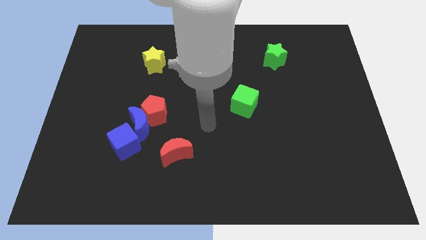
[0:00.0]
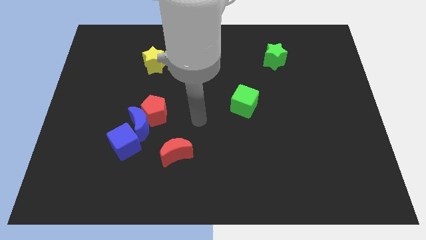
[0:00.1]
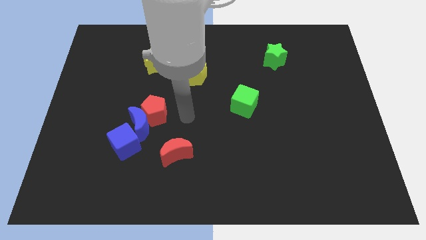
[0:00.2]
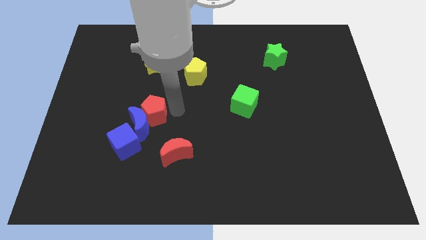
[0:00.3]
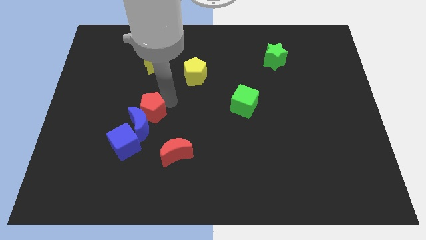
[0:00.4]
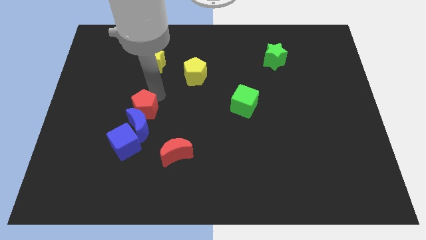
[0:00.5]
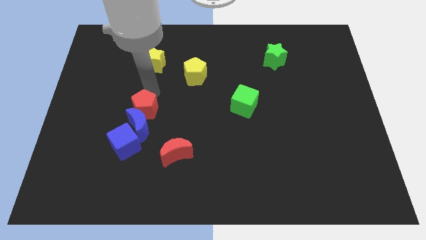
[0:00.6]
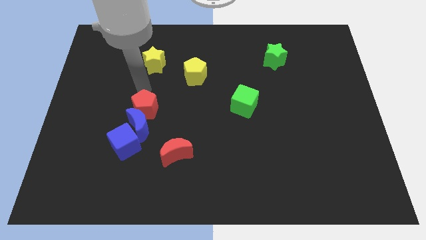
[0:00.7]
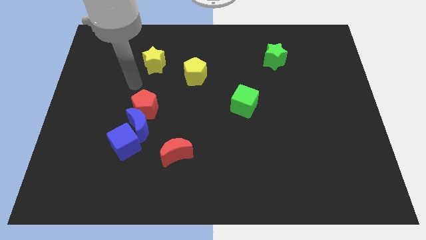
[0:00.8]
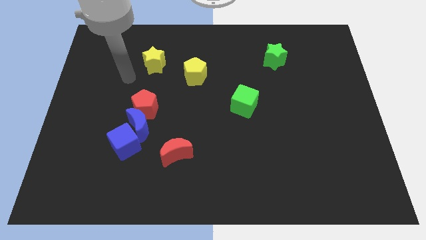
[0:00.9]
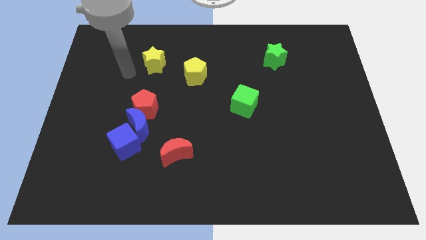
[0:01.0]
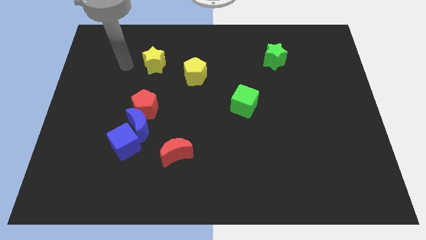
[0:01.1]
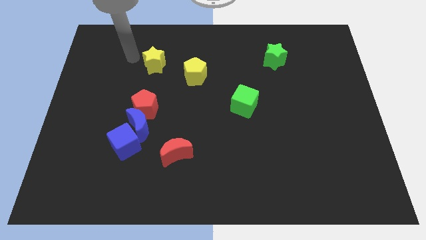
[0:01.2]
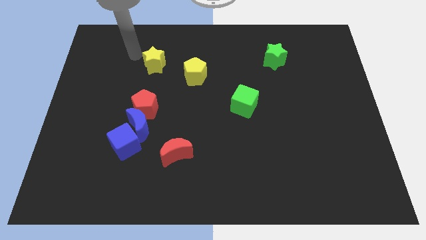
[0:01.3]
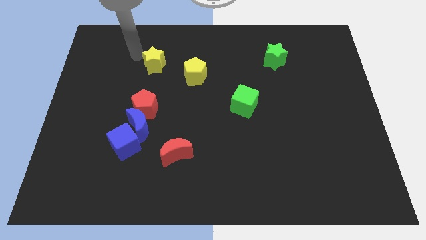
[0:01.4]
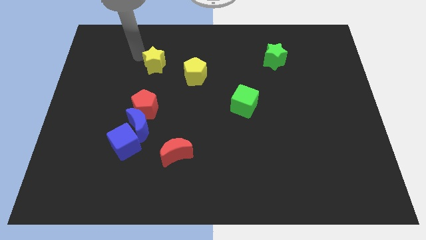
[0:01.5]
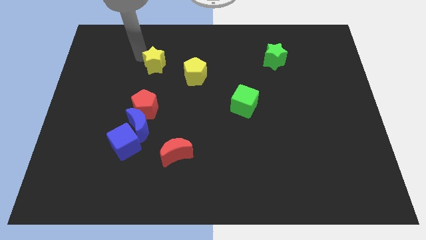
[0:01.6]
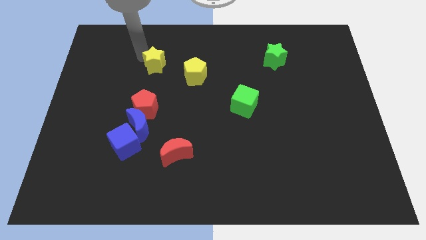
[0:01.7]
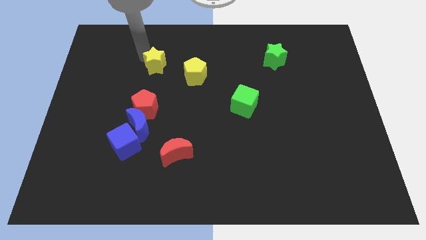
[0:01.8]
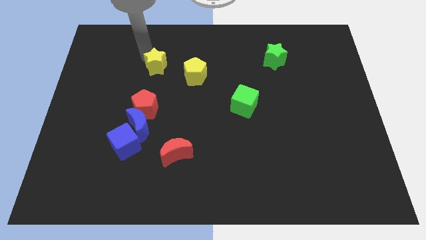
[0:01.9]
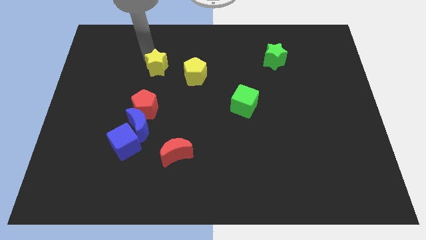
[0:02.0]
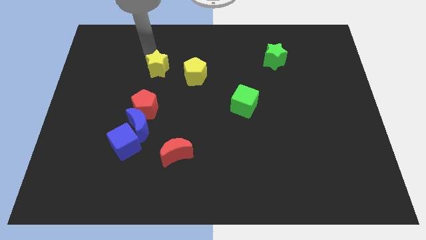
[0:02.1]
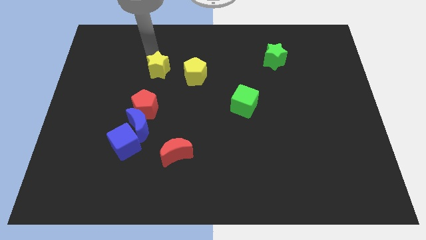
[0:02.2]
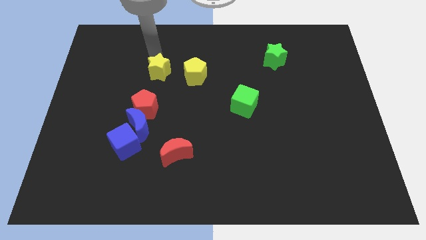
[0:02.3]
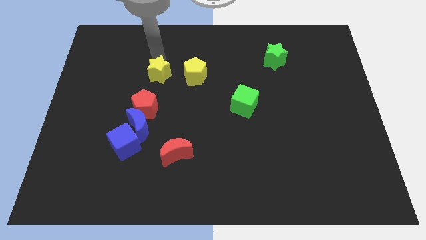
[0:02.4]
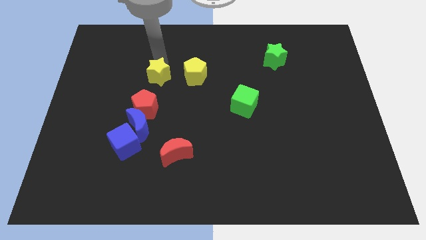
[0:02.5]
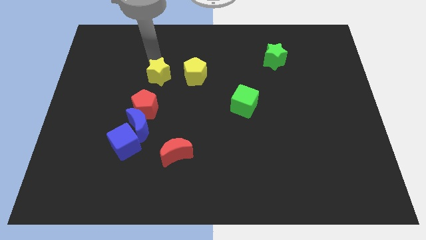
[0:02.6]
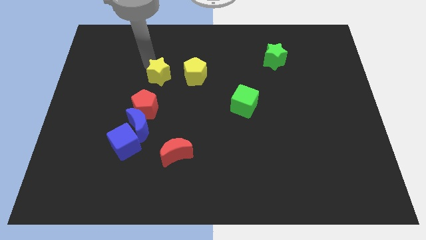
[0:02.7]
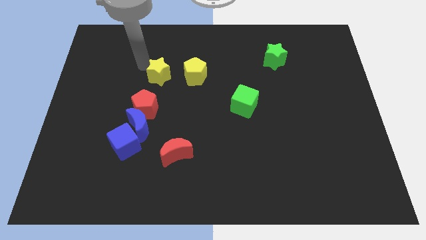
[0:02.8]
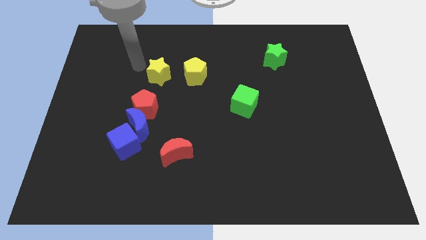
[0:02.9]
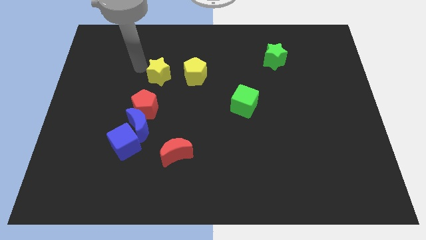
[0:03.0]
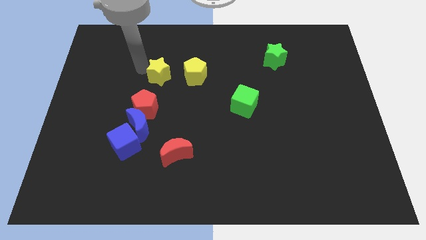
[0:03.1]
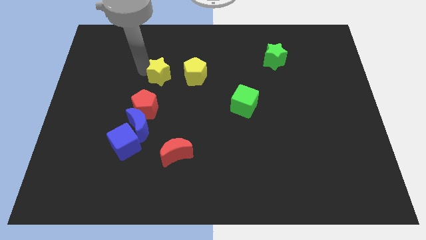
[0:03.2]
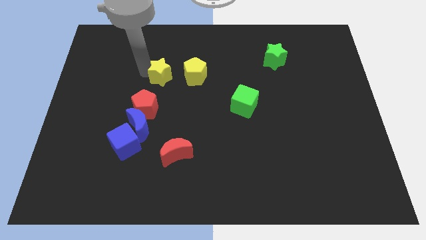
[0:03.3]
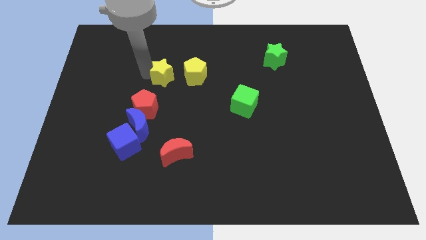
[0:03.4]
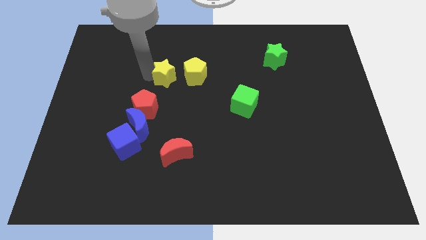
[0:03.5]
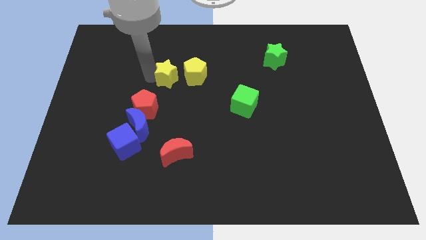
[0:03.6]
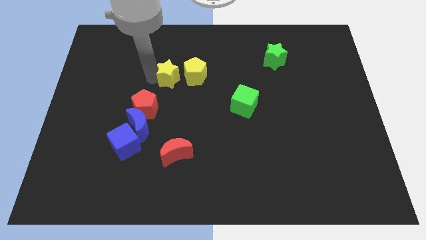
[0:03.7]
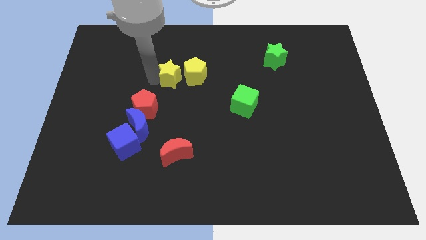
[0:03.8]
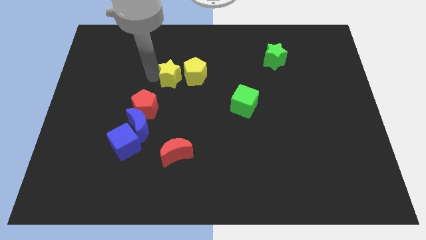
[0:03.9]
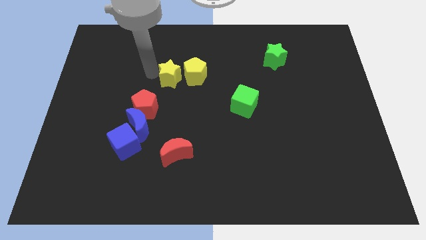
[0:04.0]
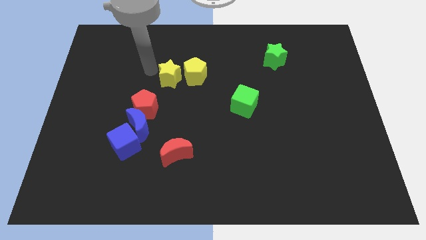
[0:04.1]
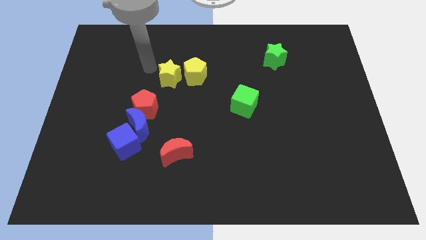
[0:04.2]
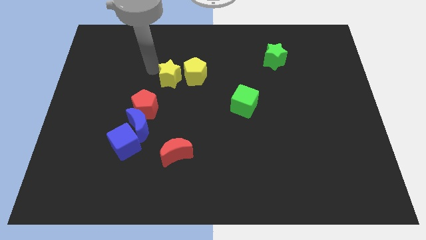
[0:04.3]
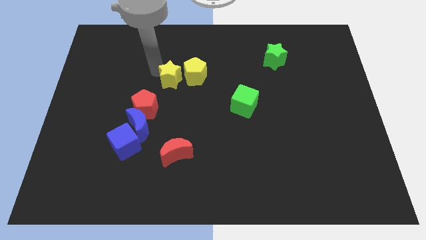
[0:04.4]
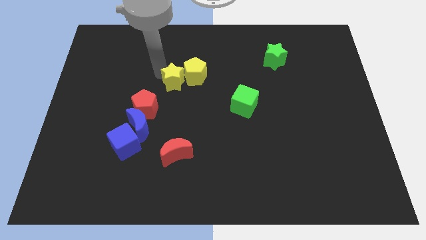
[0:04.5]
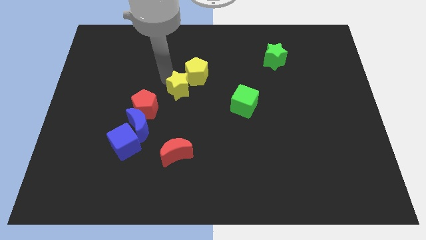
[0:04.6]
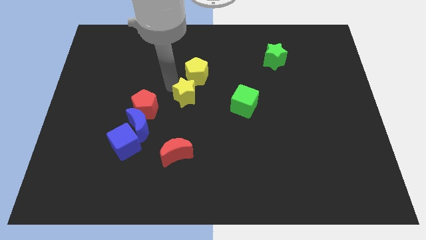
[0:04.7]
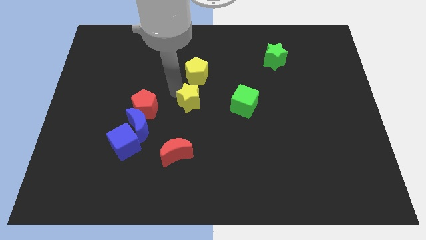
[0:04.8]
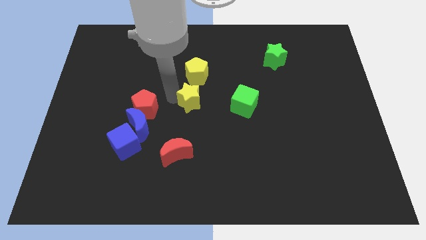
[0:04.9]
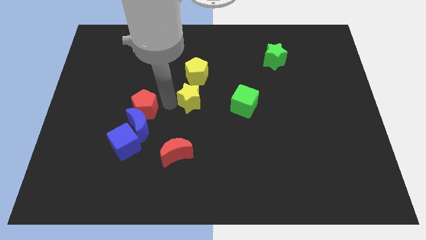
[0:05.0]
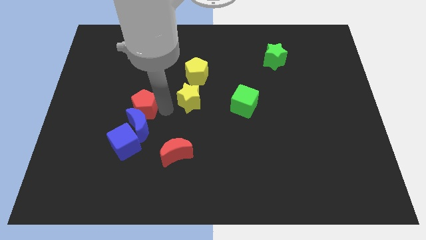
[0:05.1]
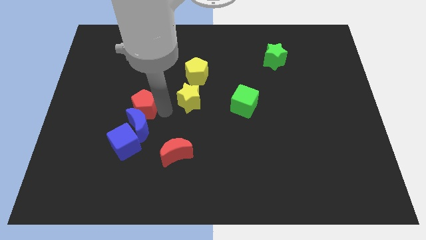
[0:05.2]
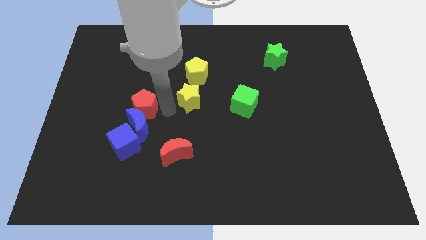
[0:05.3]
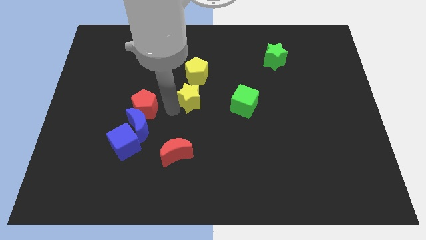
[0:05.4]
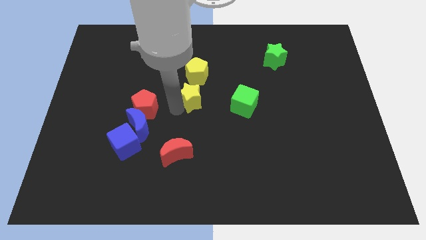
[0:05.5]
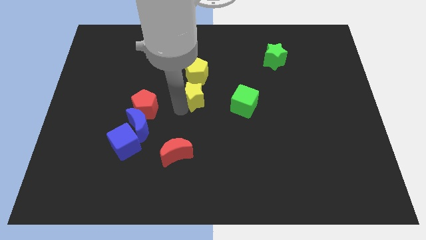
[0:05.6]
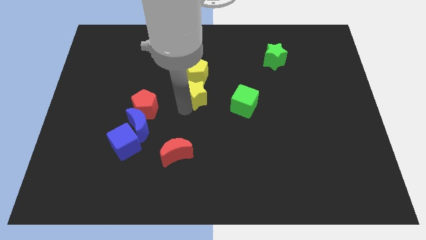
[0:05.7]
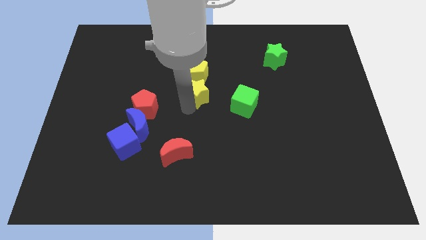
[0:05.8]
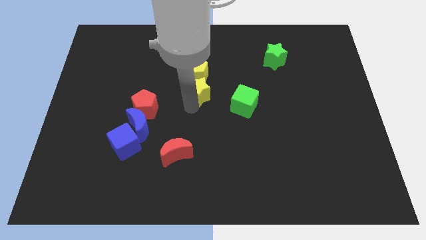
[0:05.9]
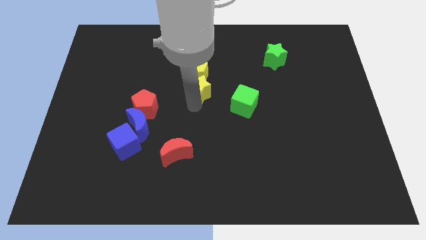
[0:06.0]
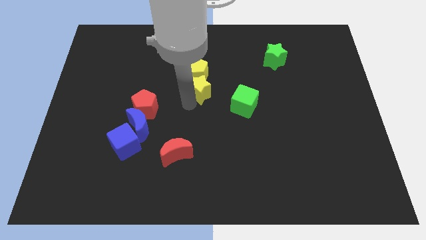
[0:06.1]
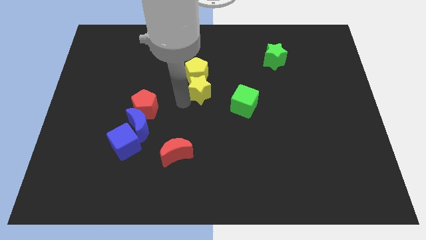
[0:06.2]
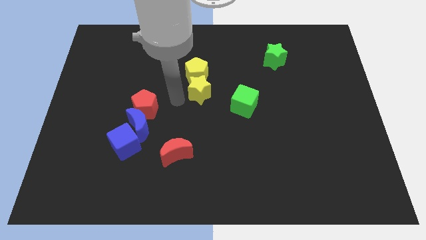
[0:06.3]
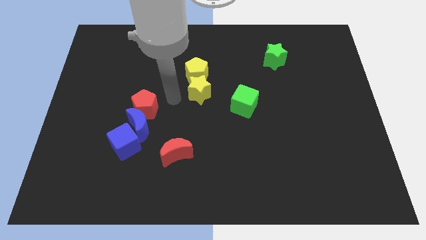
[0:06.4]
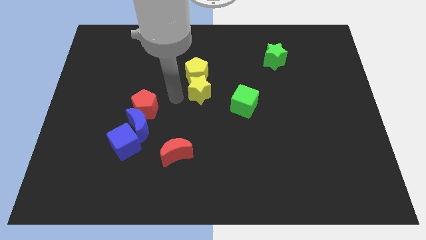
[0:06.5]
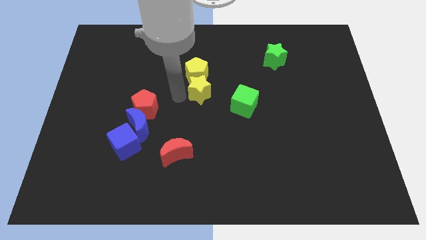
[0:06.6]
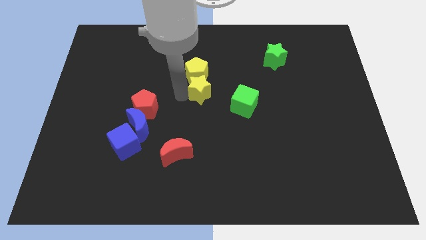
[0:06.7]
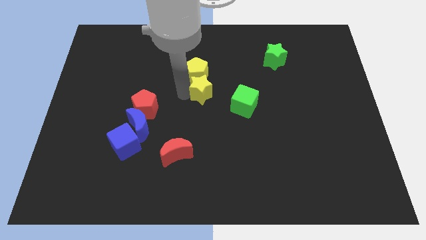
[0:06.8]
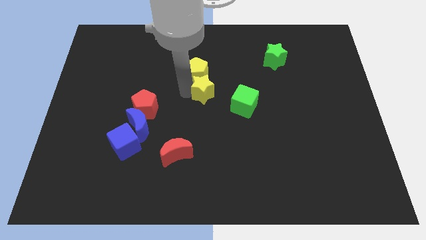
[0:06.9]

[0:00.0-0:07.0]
move the yellow star to the top left of the green cube
